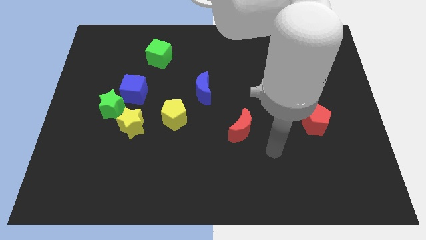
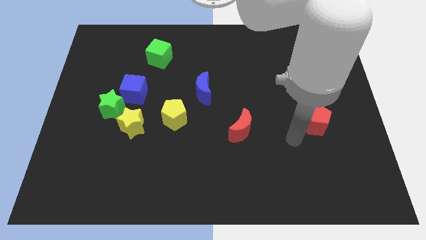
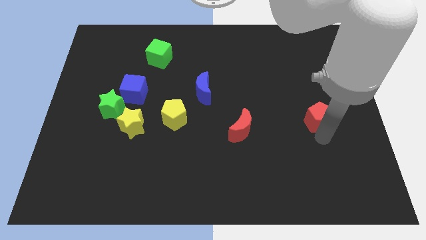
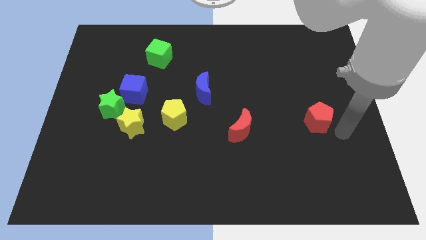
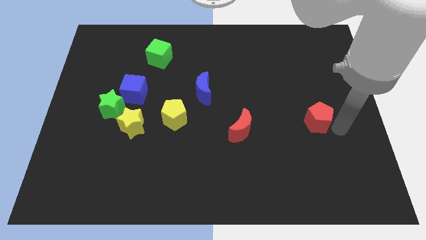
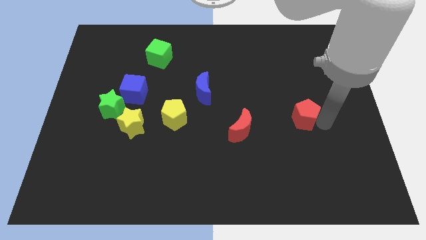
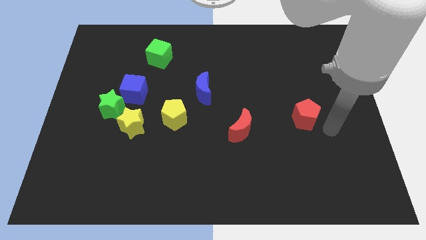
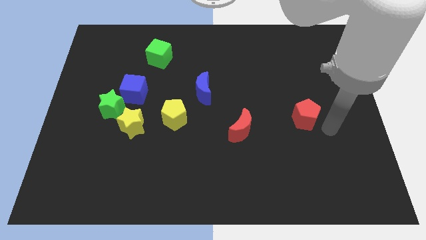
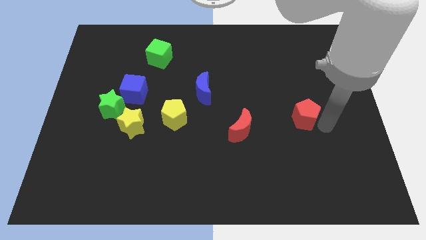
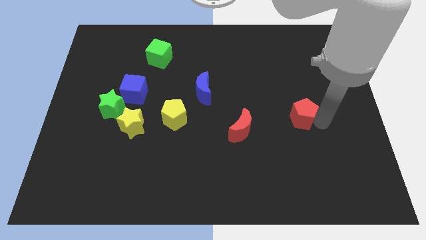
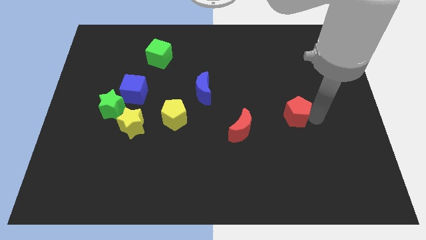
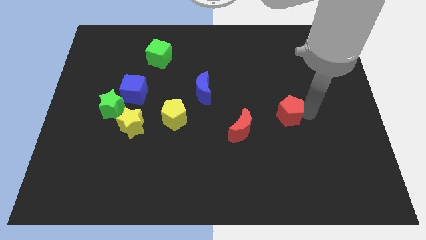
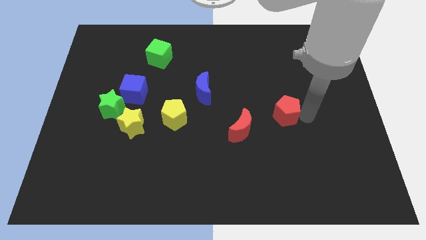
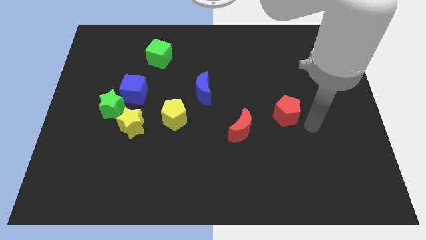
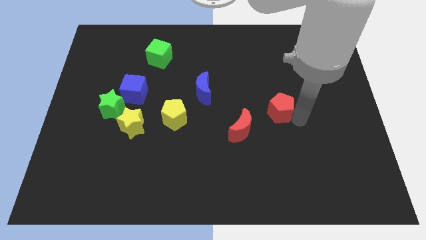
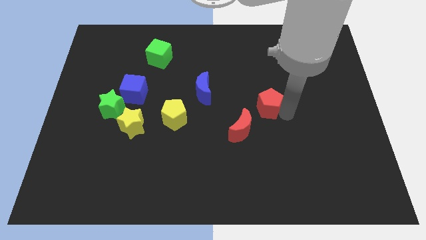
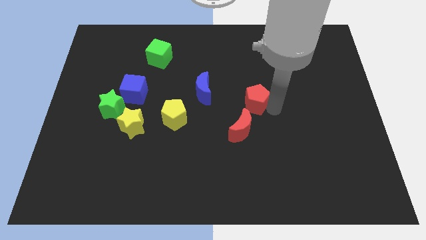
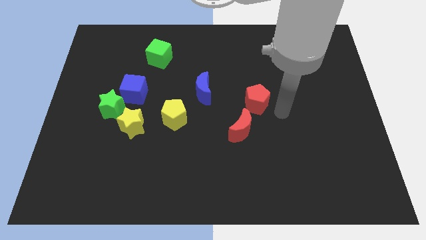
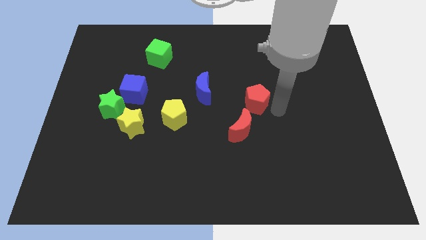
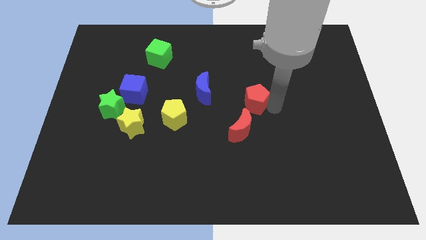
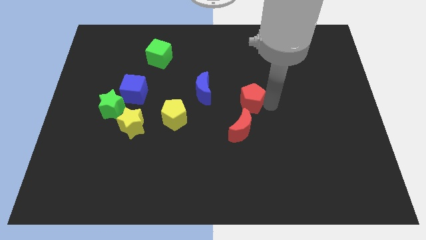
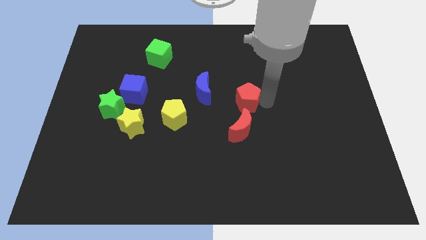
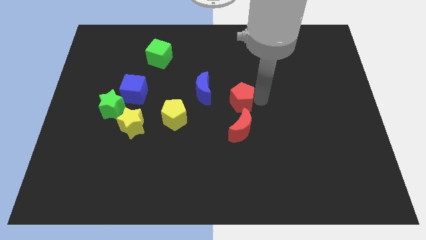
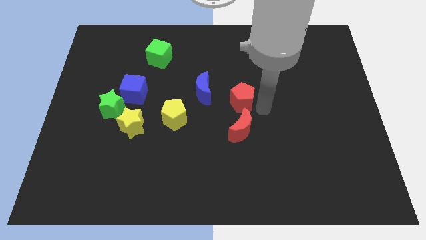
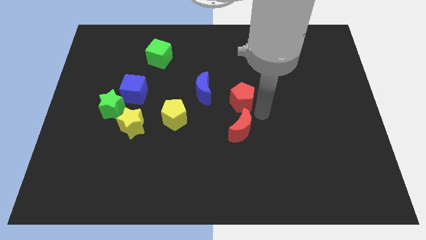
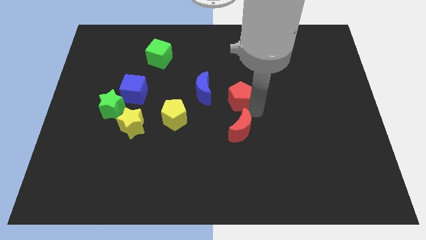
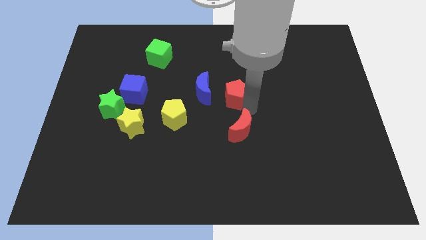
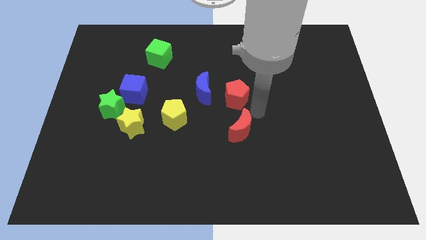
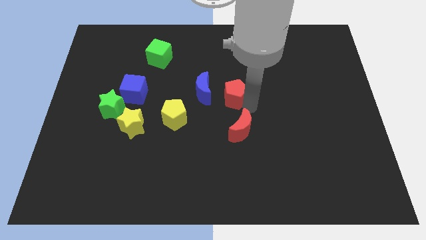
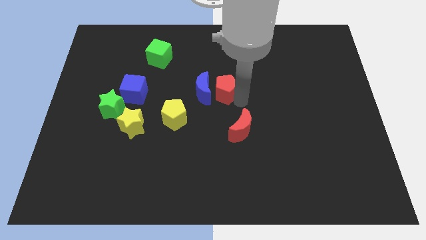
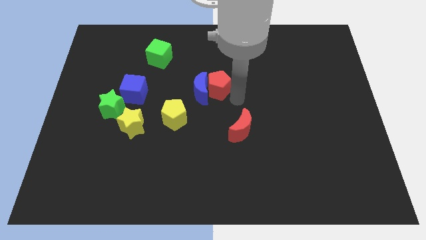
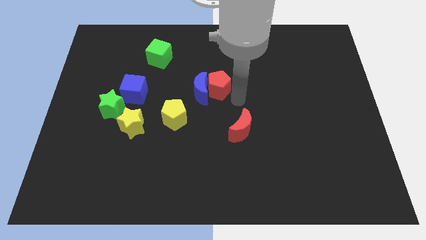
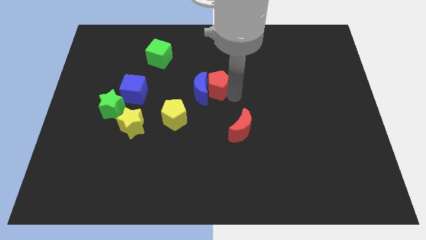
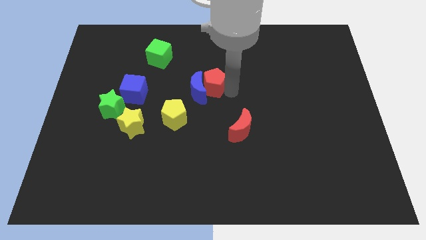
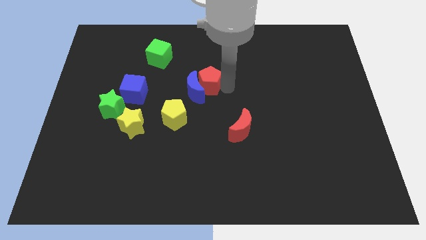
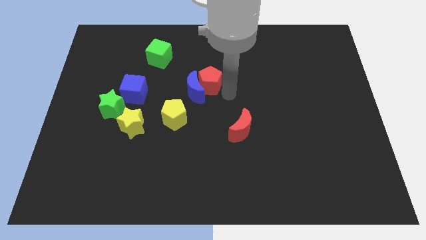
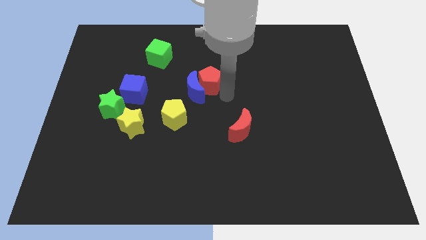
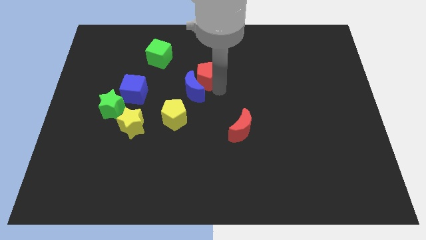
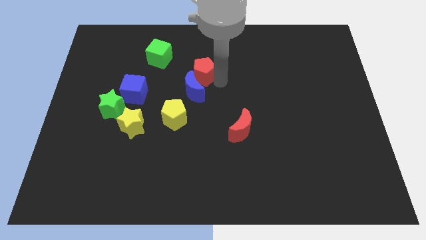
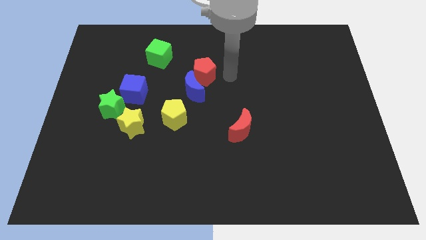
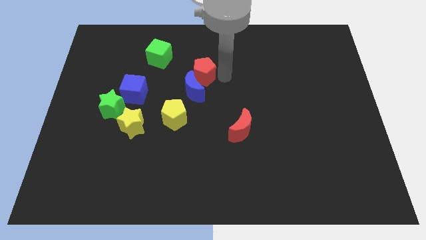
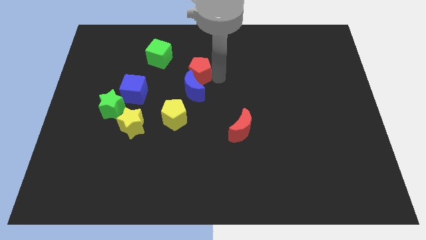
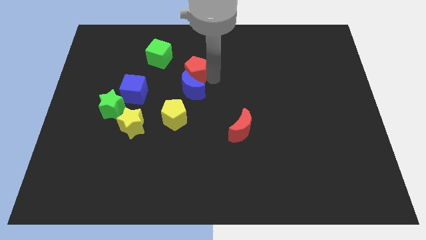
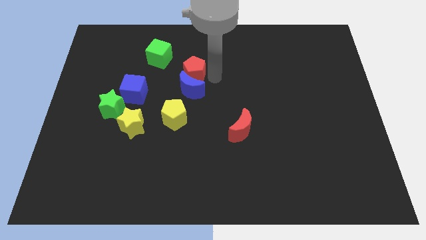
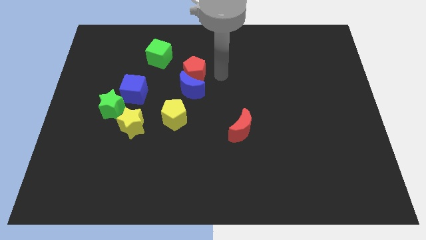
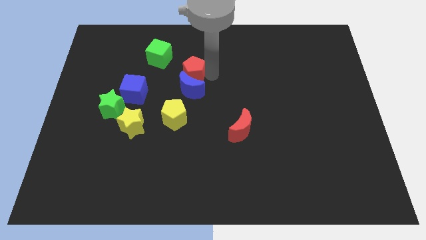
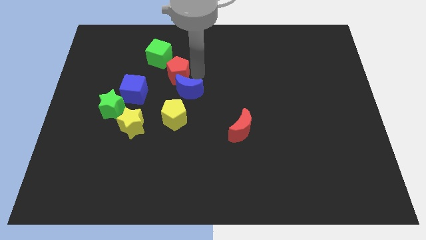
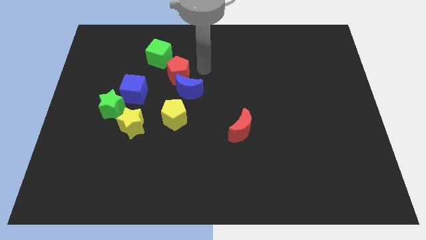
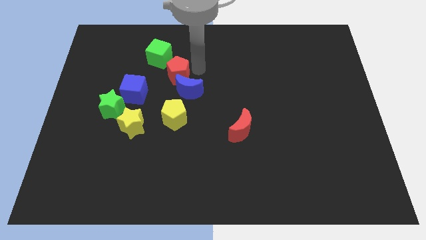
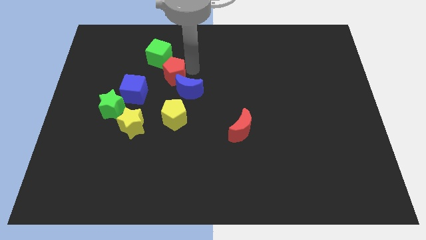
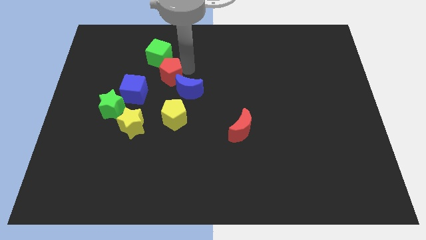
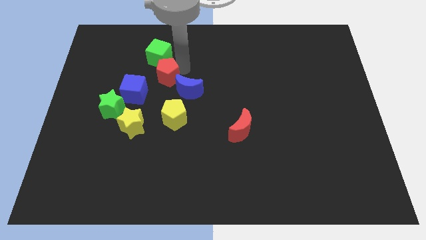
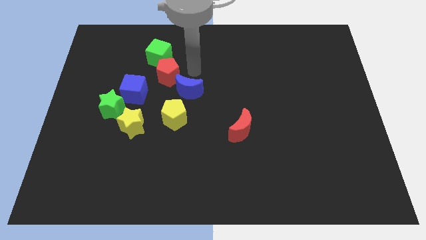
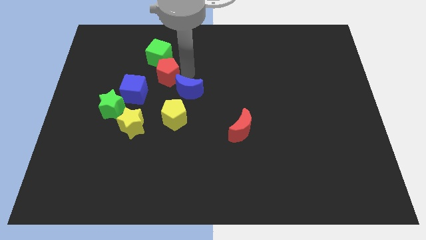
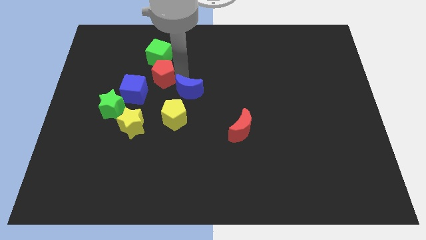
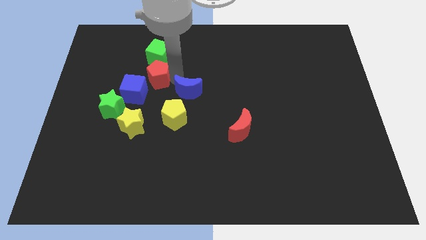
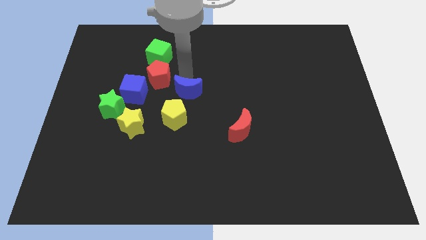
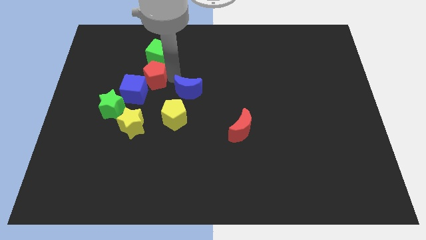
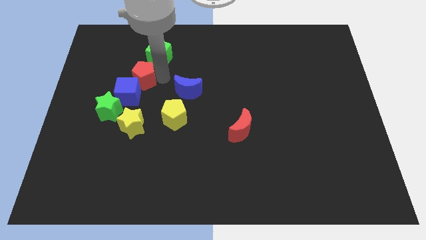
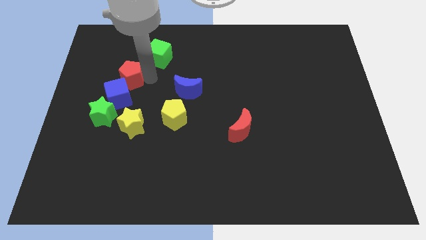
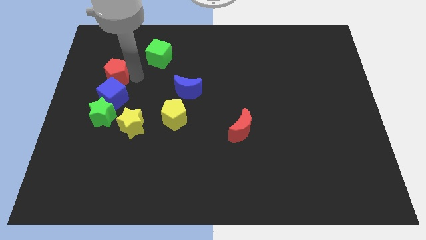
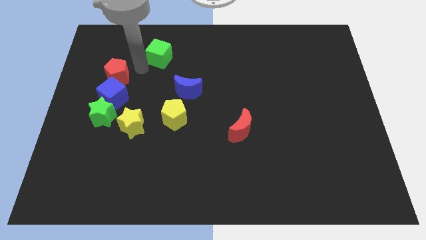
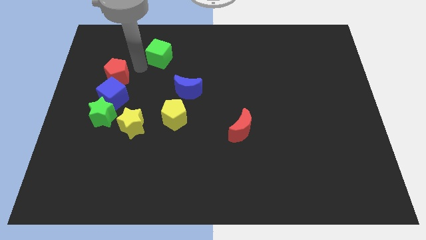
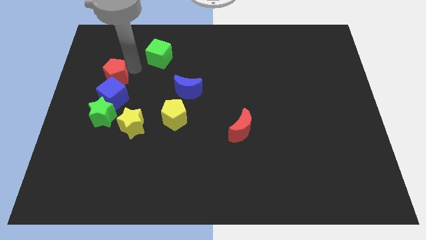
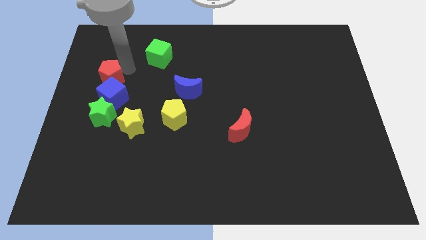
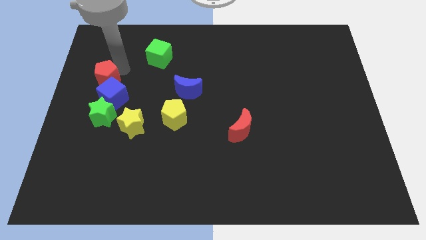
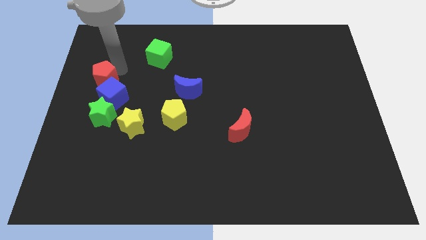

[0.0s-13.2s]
move the red pentagon to the left side

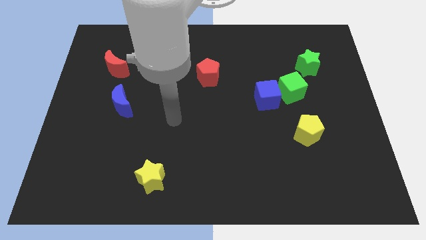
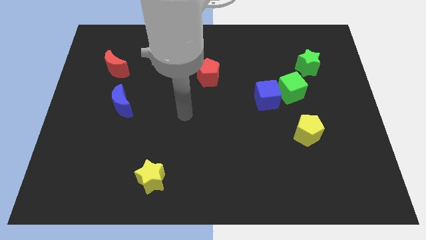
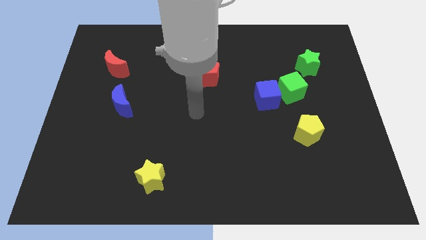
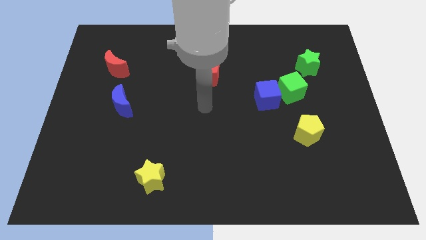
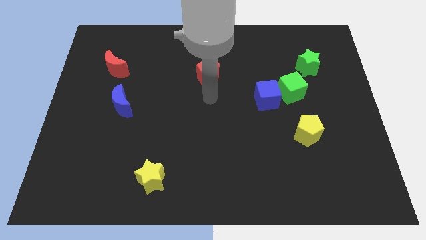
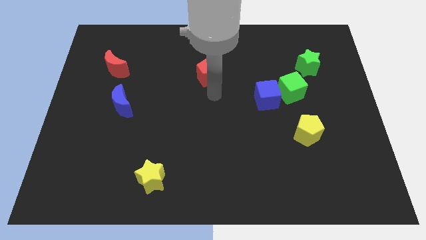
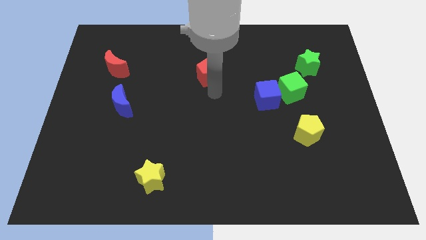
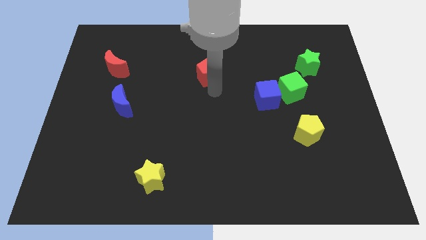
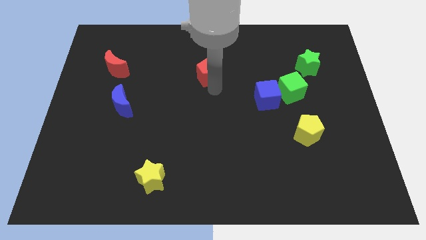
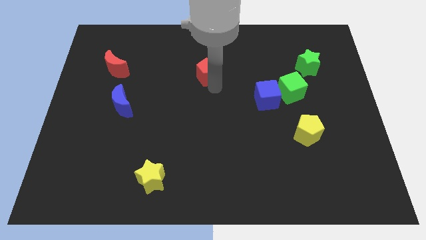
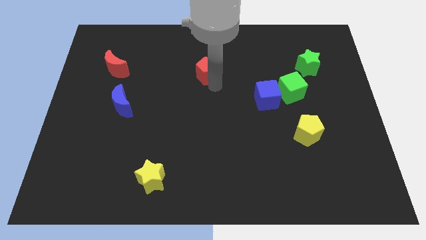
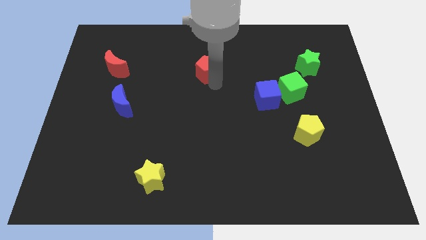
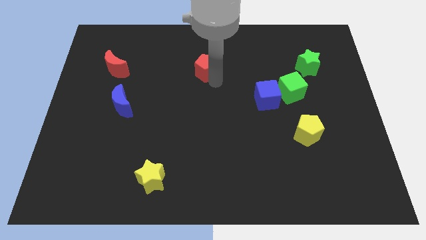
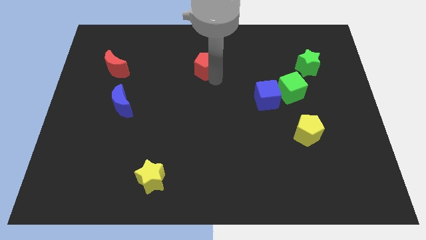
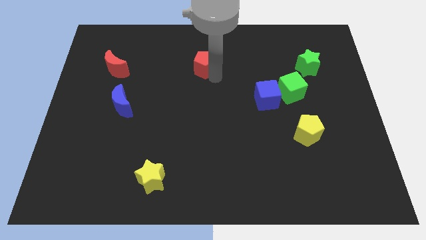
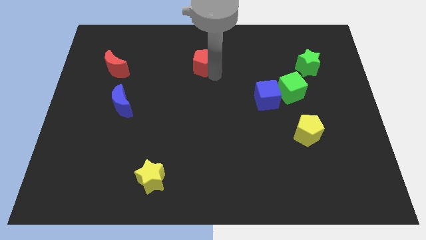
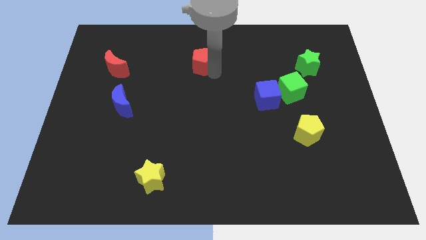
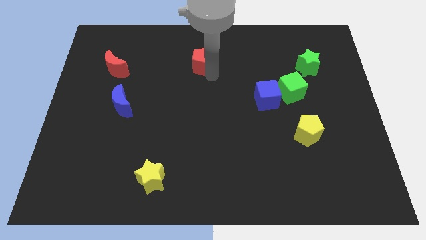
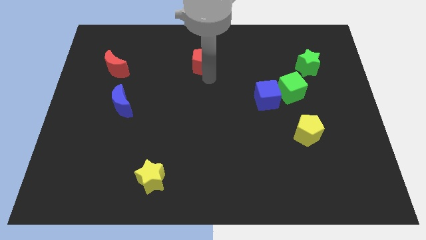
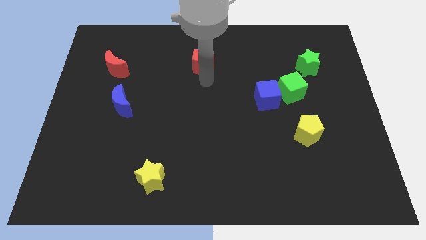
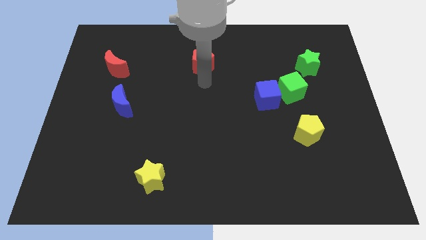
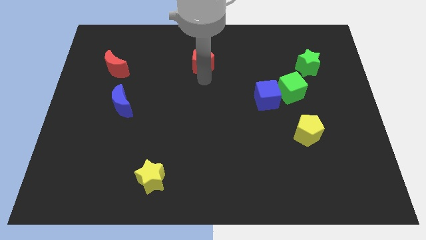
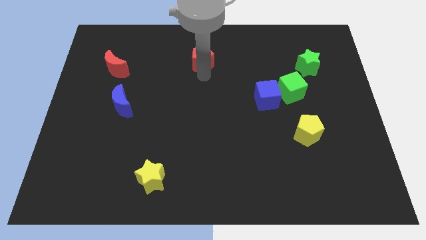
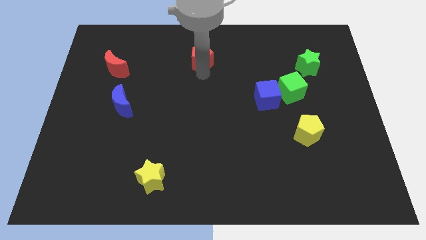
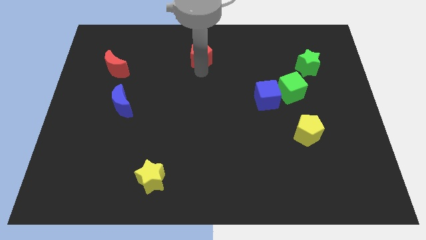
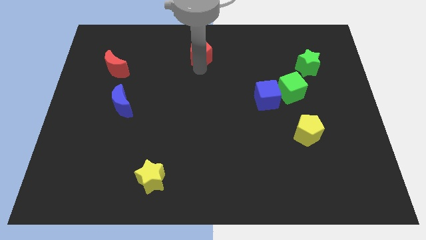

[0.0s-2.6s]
slide the red pentagon to the top
